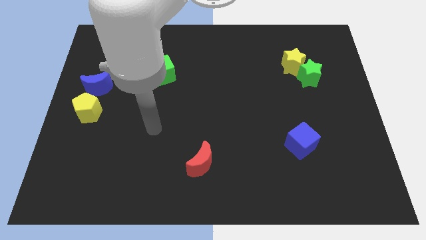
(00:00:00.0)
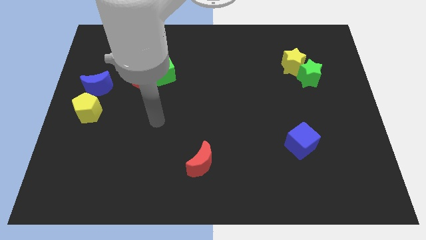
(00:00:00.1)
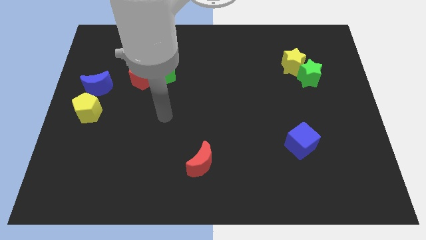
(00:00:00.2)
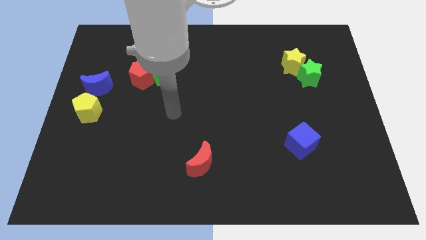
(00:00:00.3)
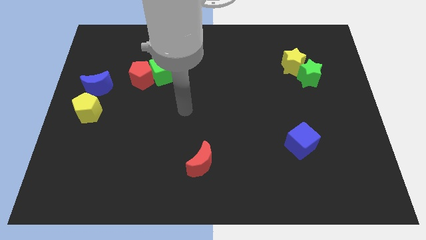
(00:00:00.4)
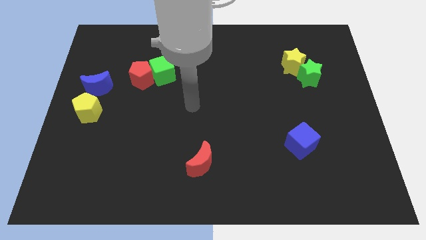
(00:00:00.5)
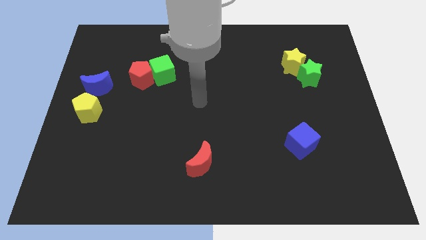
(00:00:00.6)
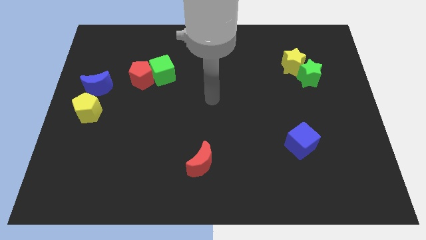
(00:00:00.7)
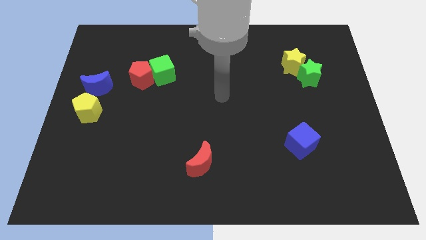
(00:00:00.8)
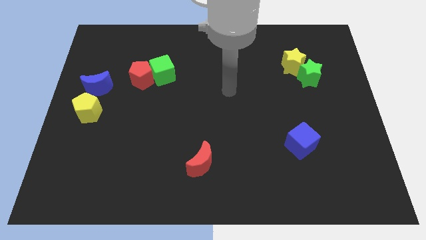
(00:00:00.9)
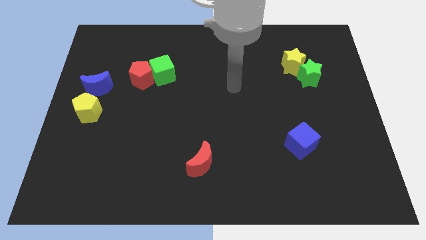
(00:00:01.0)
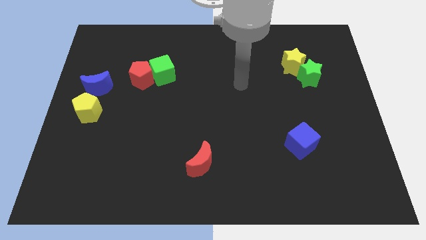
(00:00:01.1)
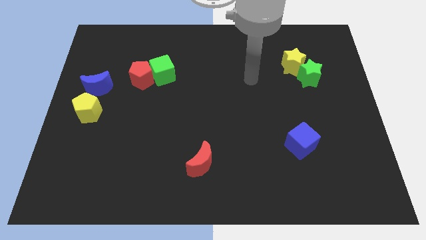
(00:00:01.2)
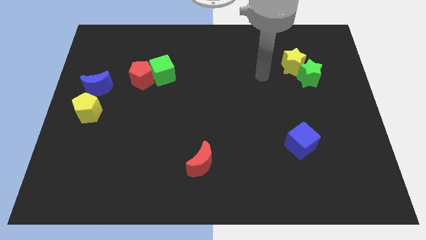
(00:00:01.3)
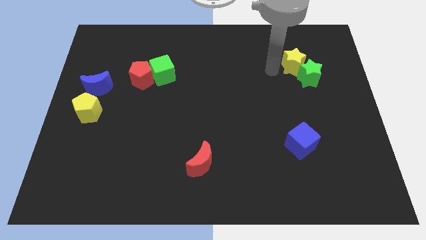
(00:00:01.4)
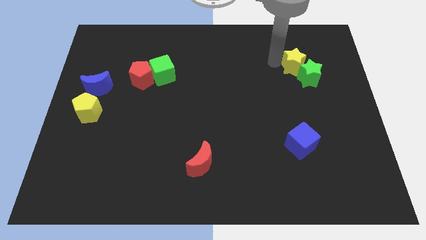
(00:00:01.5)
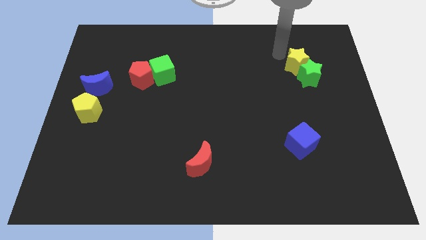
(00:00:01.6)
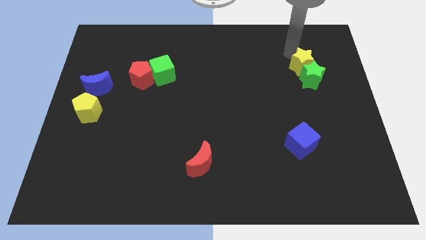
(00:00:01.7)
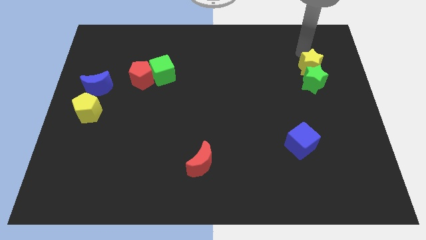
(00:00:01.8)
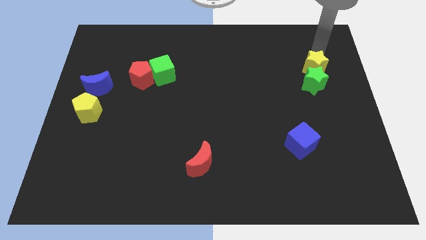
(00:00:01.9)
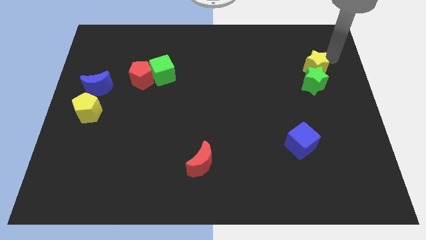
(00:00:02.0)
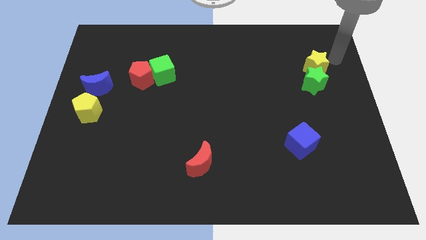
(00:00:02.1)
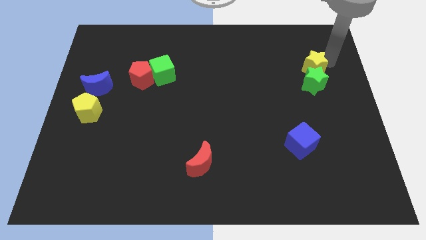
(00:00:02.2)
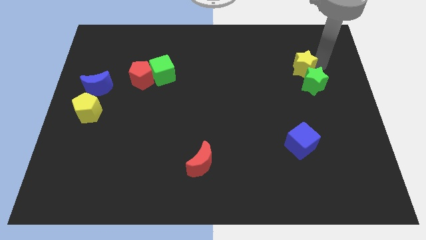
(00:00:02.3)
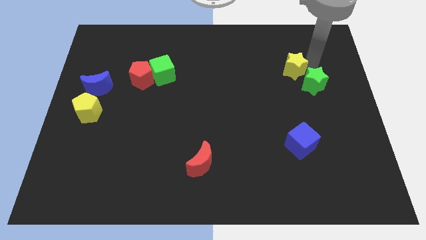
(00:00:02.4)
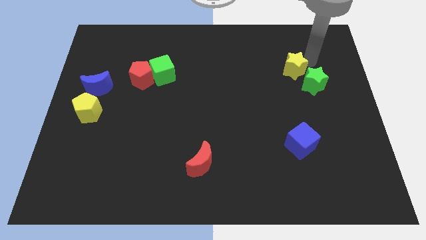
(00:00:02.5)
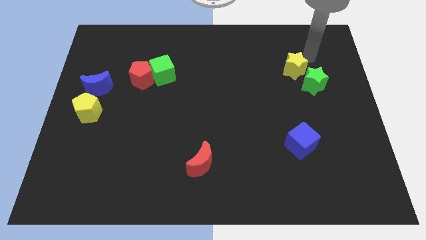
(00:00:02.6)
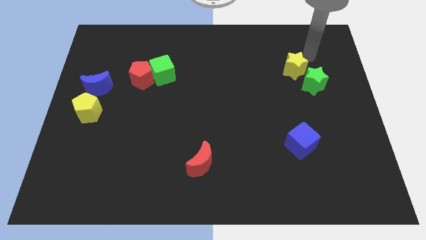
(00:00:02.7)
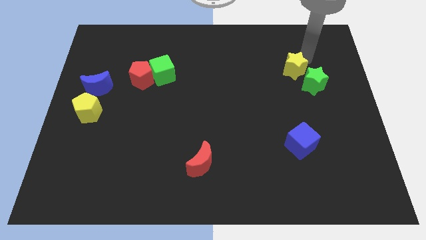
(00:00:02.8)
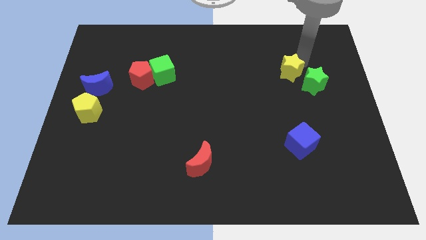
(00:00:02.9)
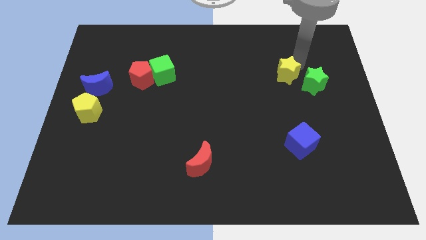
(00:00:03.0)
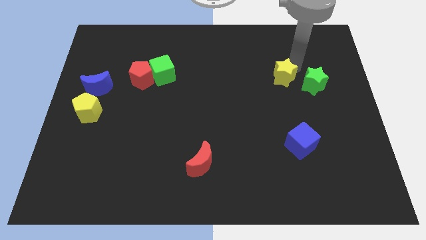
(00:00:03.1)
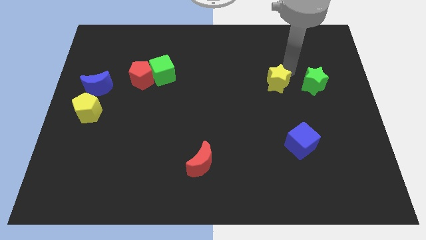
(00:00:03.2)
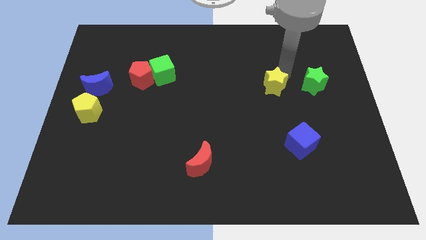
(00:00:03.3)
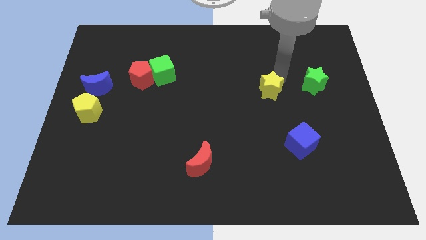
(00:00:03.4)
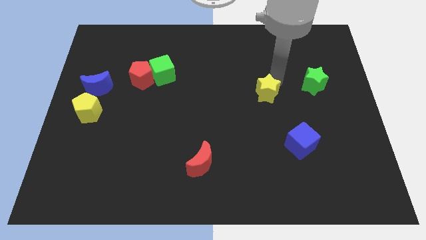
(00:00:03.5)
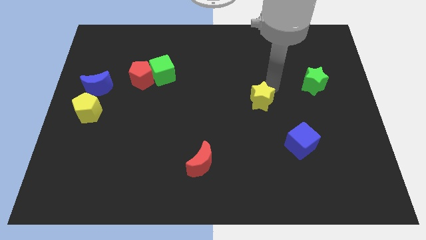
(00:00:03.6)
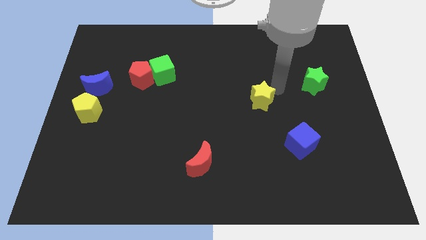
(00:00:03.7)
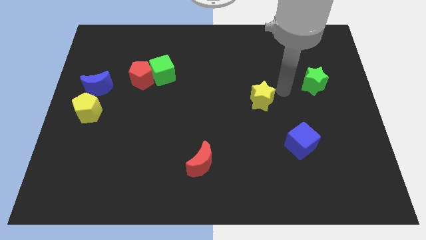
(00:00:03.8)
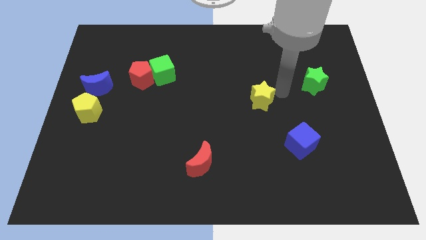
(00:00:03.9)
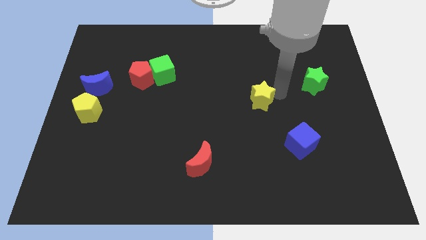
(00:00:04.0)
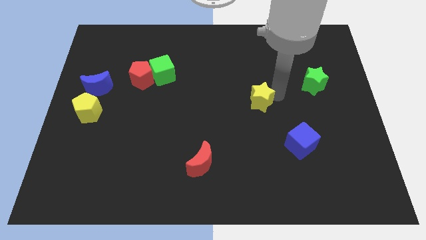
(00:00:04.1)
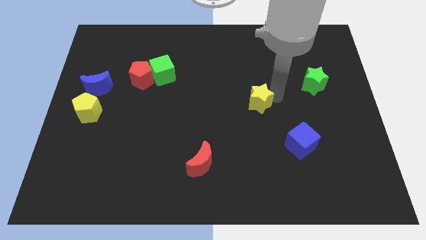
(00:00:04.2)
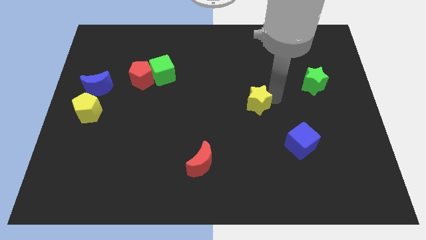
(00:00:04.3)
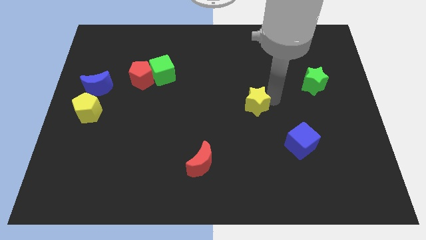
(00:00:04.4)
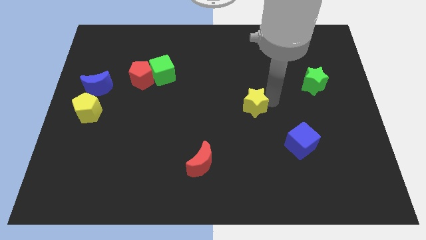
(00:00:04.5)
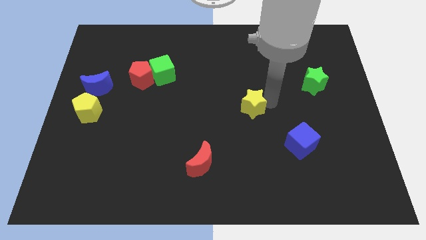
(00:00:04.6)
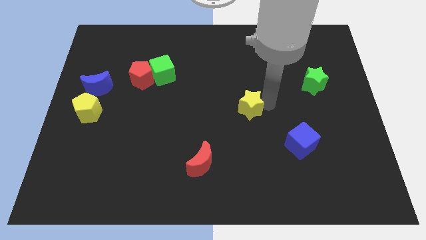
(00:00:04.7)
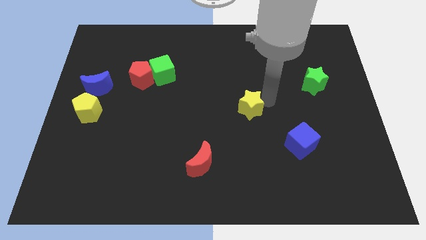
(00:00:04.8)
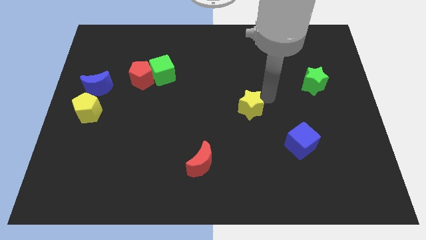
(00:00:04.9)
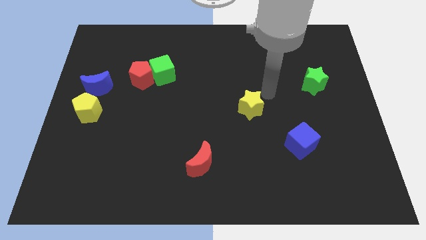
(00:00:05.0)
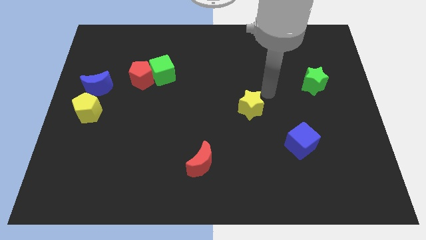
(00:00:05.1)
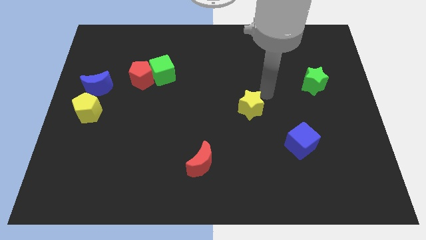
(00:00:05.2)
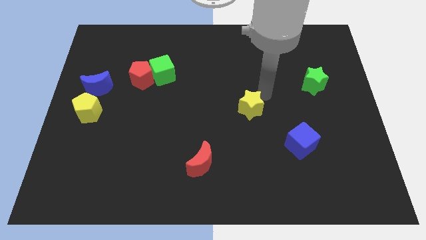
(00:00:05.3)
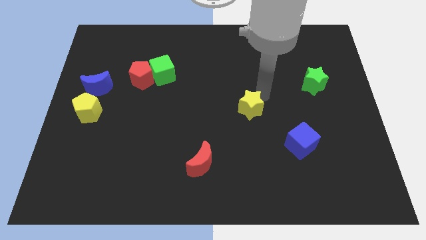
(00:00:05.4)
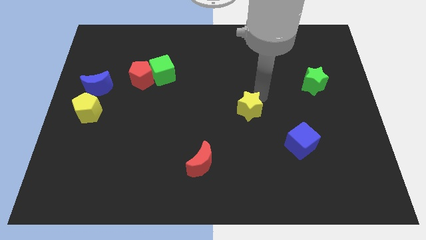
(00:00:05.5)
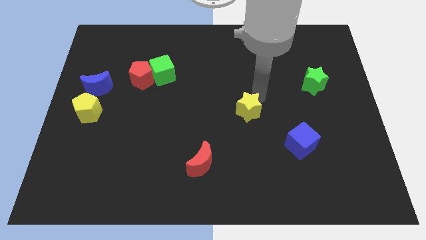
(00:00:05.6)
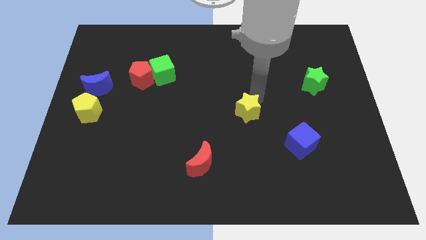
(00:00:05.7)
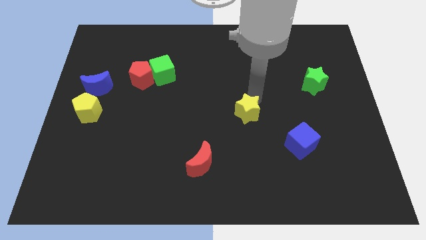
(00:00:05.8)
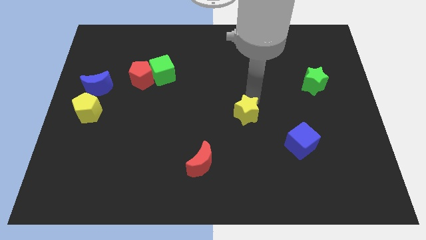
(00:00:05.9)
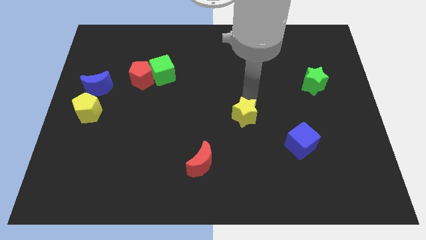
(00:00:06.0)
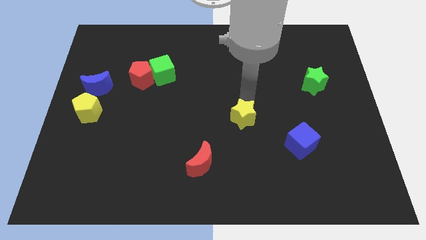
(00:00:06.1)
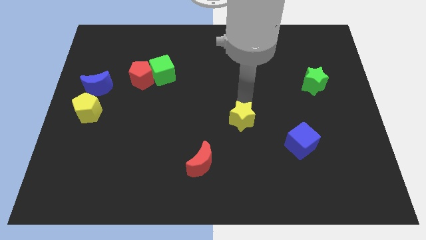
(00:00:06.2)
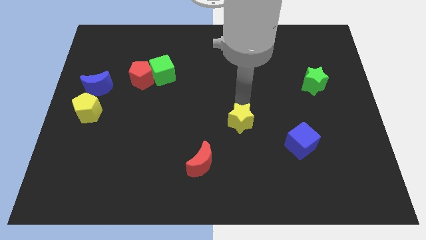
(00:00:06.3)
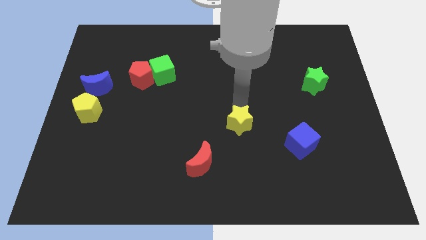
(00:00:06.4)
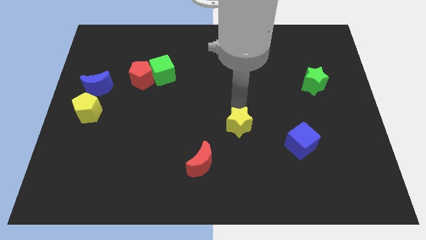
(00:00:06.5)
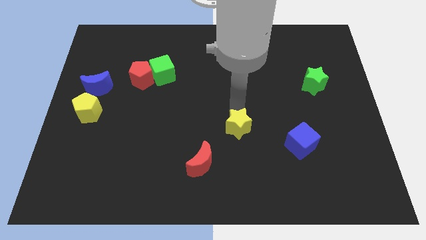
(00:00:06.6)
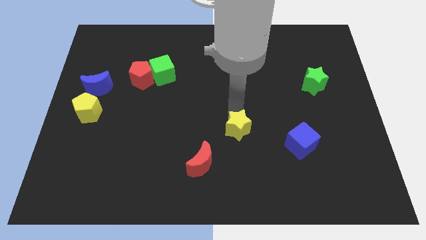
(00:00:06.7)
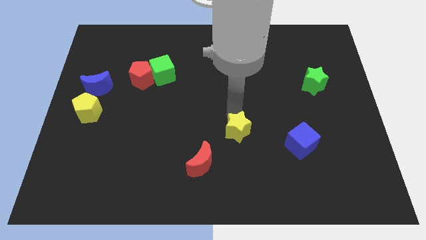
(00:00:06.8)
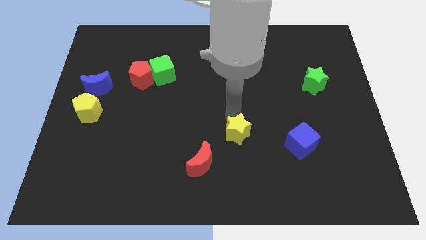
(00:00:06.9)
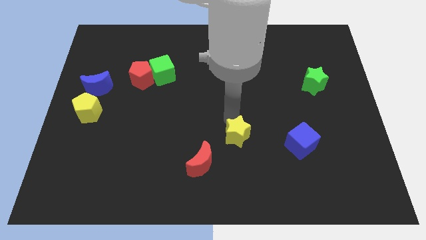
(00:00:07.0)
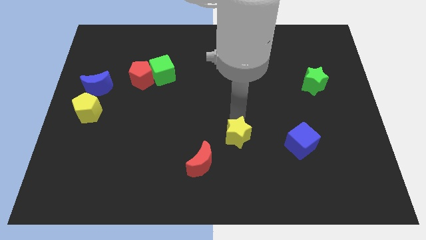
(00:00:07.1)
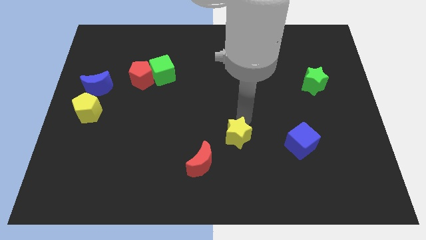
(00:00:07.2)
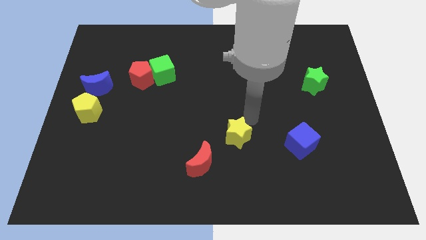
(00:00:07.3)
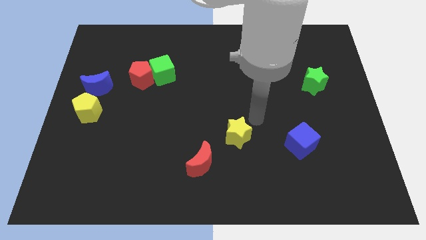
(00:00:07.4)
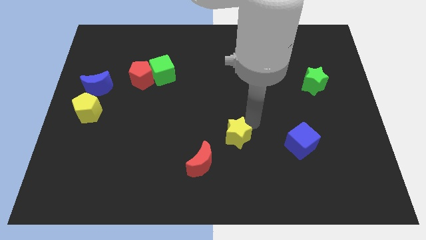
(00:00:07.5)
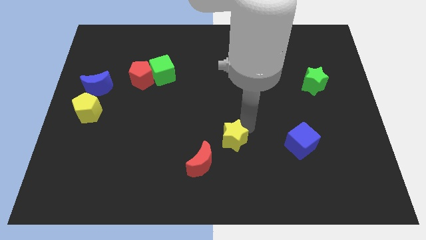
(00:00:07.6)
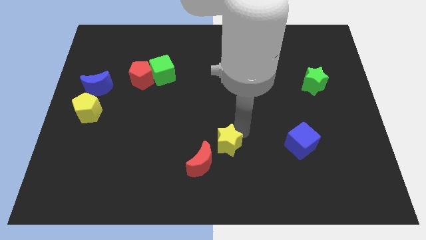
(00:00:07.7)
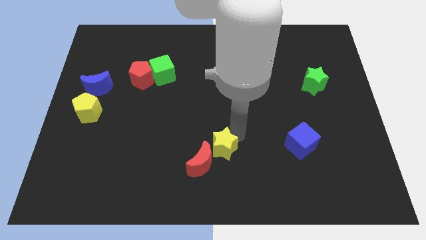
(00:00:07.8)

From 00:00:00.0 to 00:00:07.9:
put the yellow star towards the red moon
